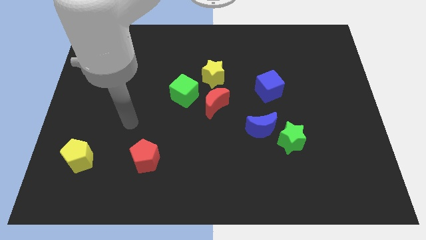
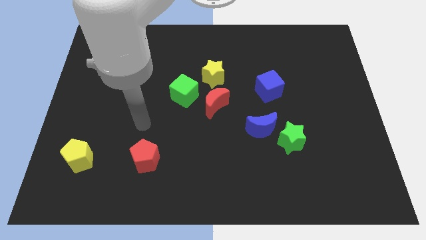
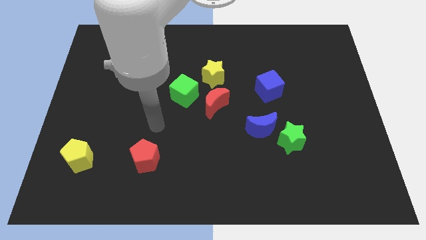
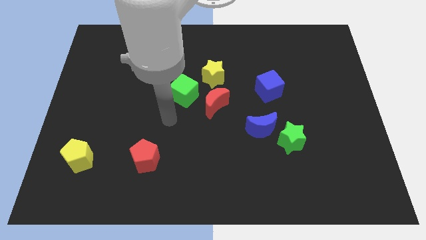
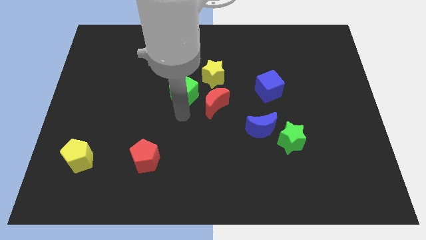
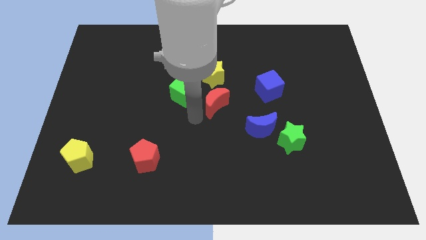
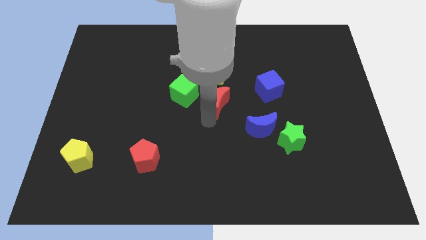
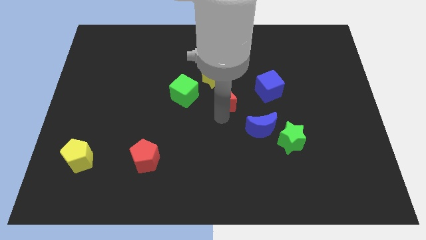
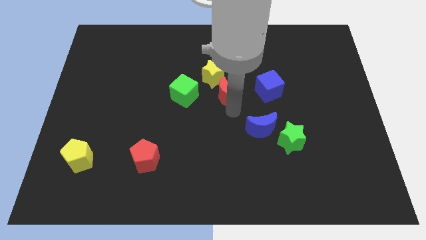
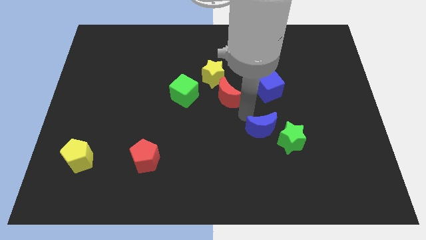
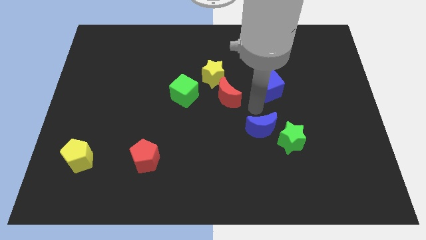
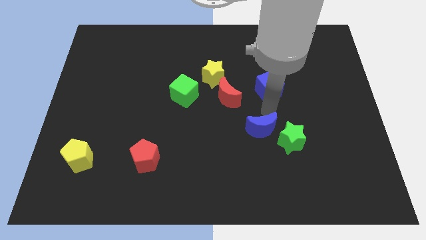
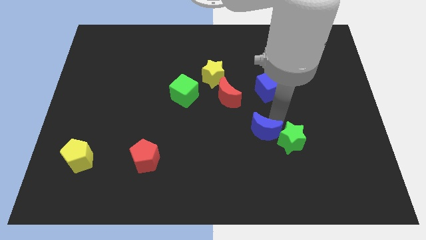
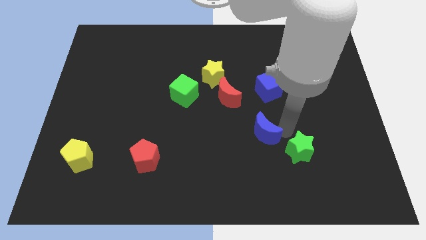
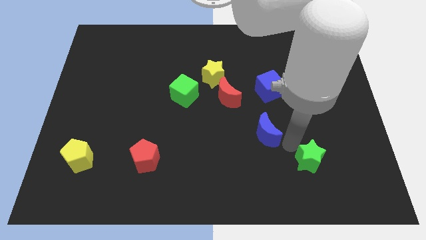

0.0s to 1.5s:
separate the blue moon from the green star

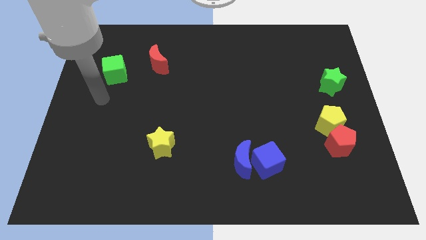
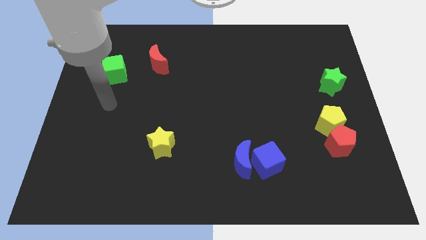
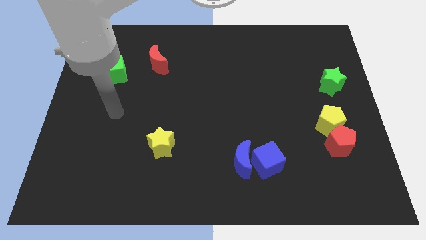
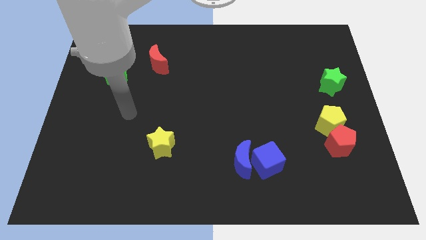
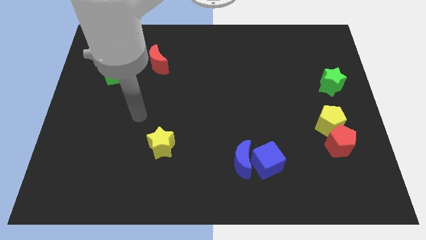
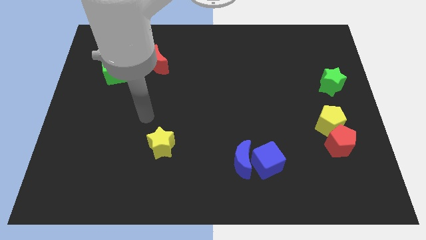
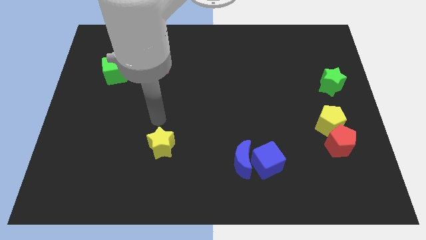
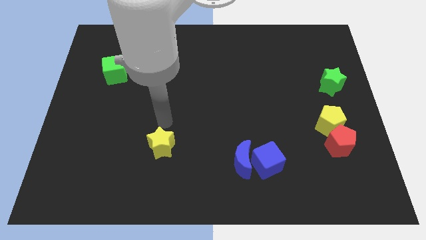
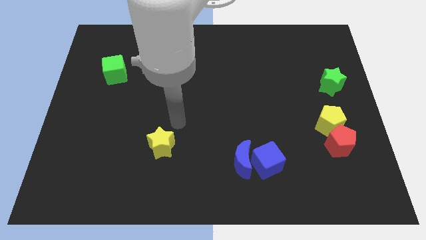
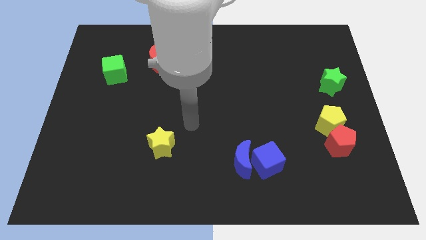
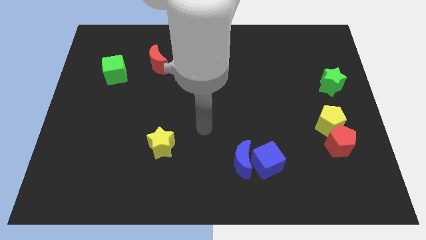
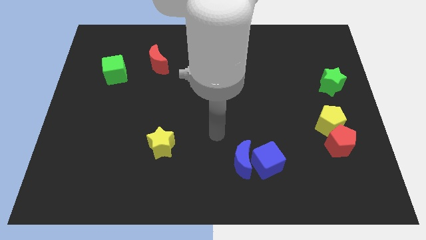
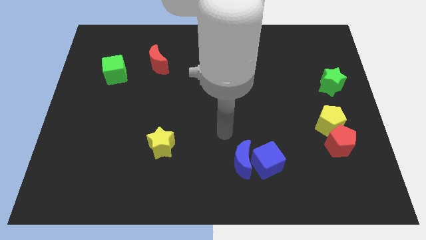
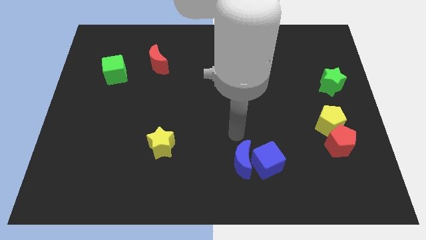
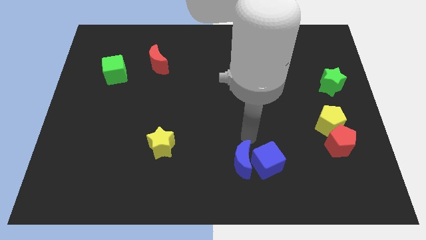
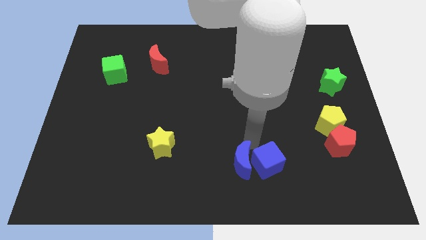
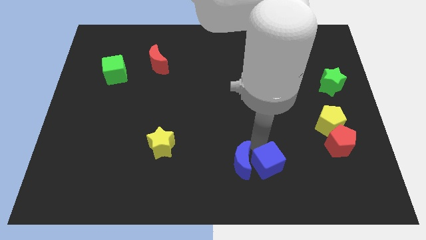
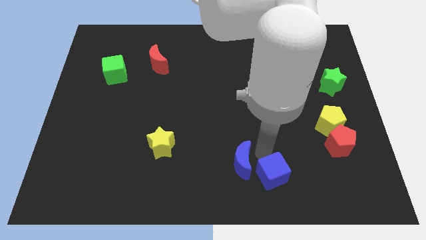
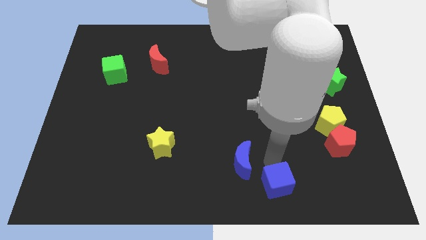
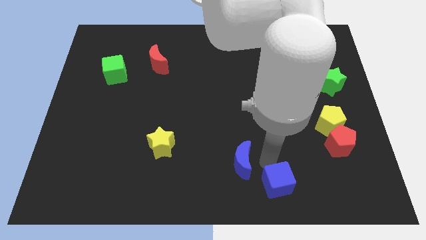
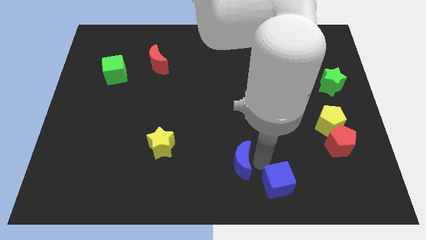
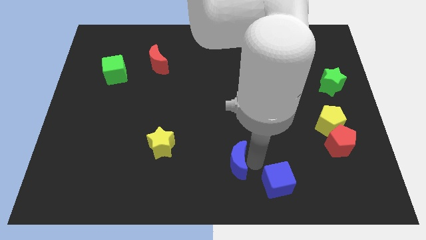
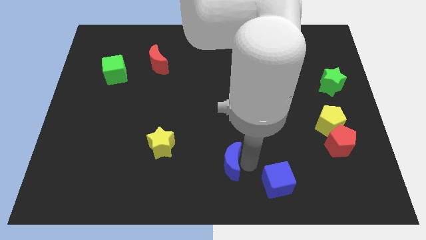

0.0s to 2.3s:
pull the blue moon apart from the blue cube

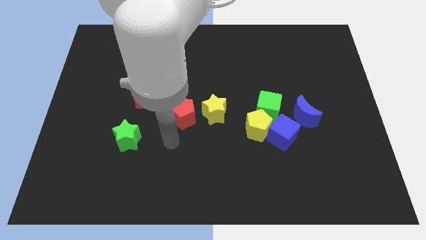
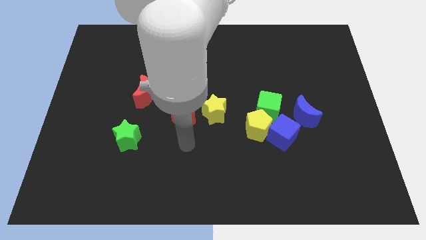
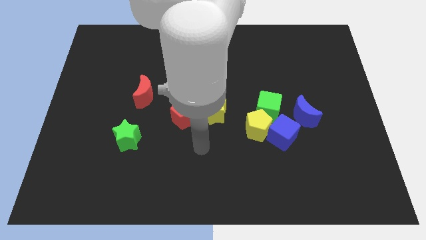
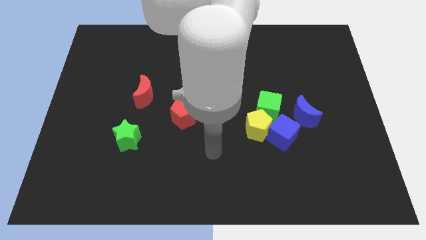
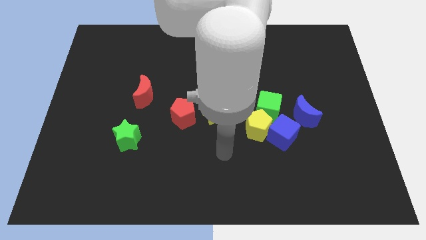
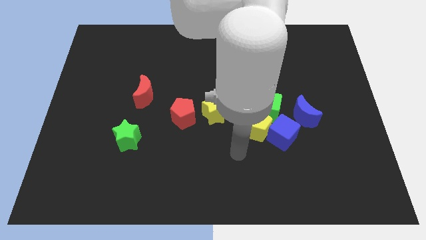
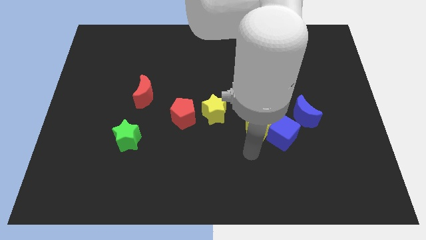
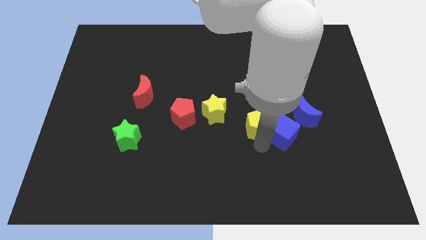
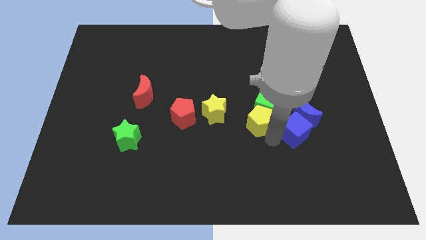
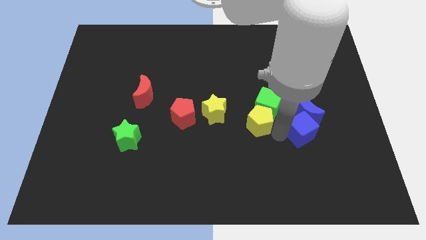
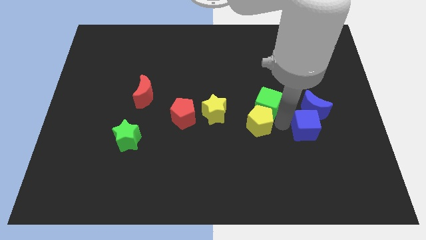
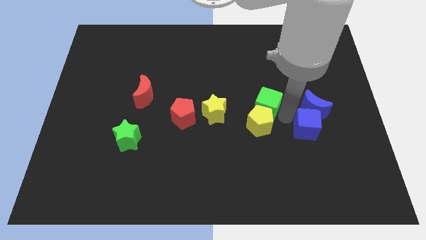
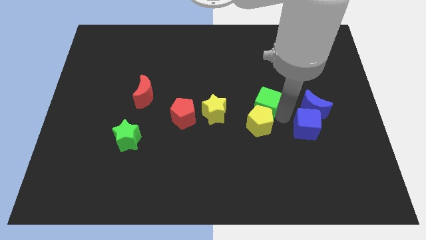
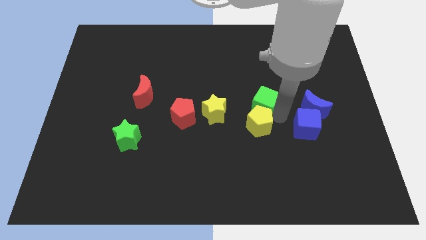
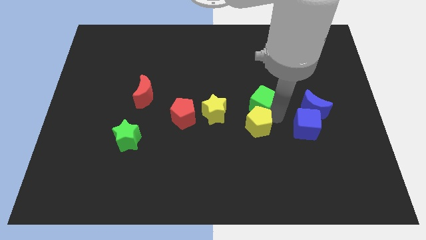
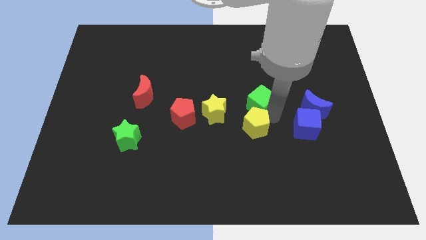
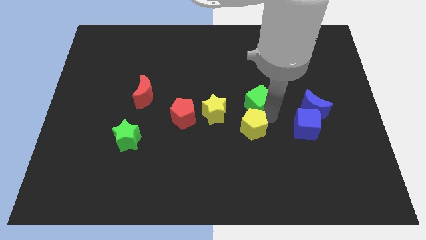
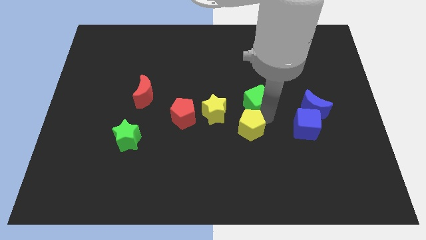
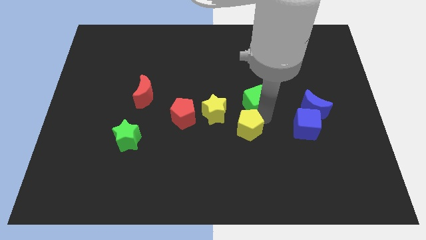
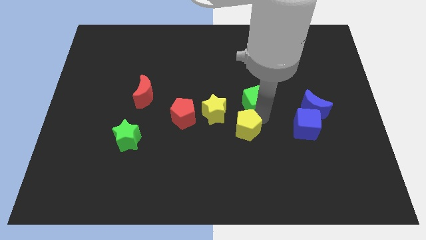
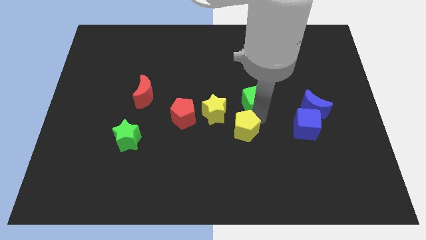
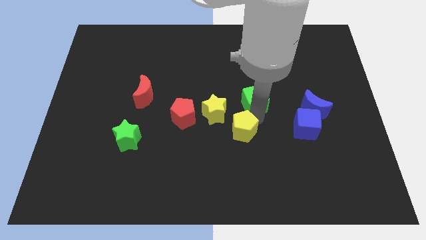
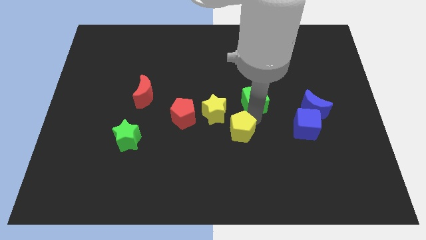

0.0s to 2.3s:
separate the yellow pentagon from the blue cube and green cube

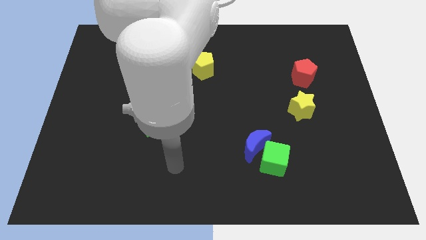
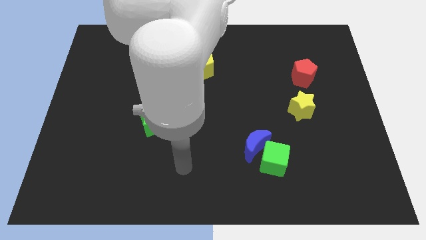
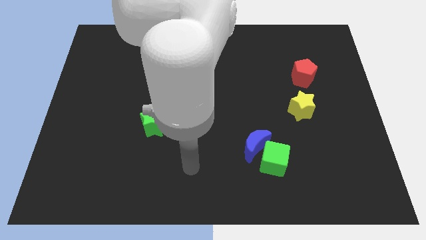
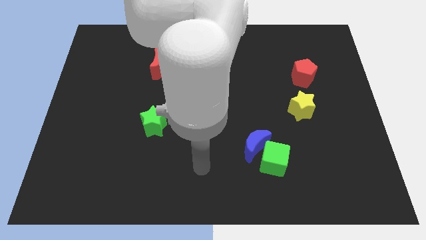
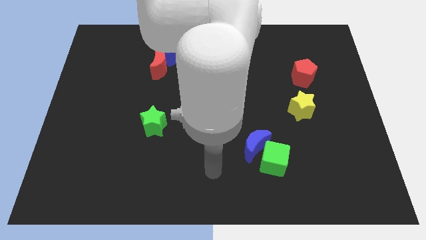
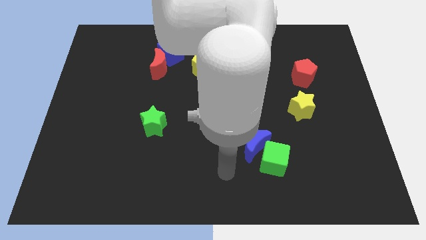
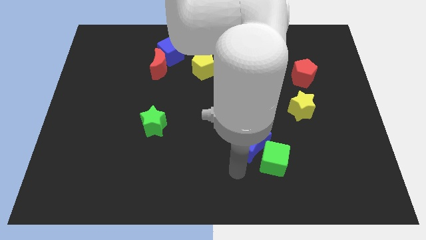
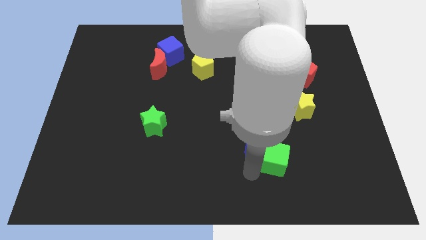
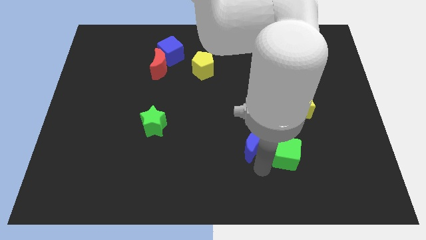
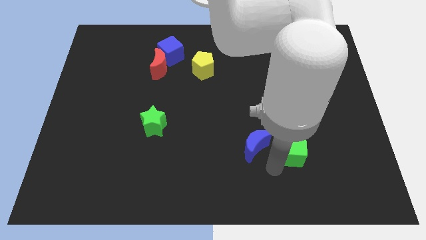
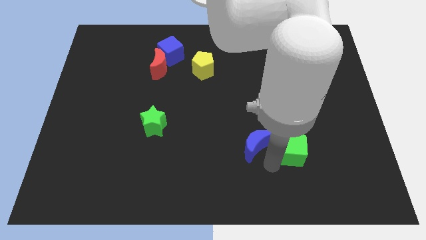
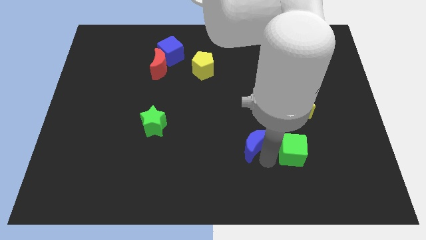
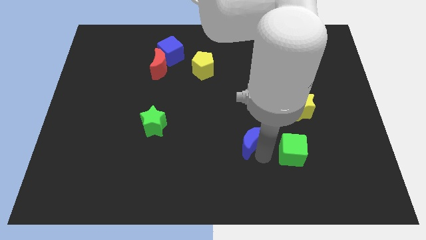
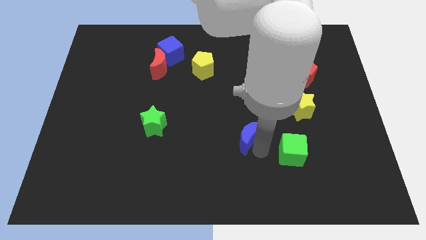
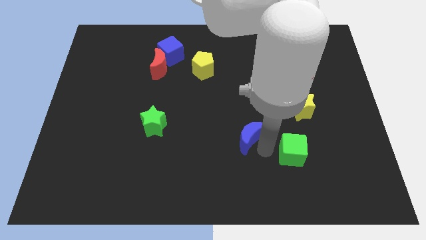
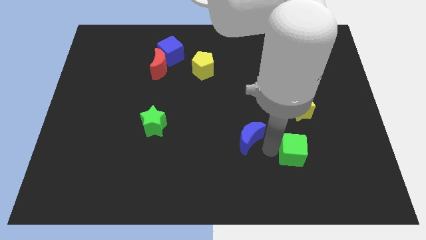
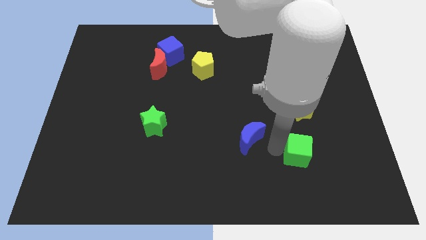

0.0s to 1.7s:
pull the blue moon apart from the green cube

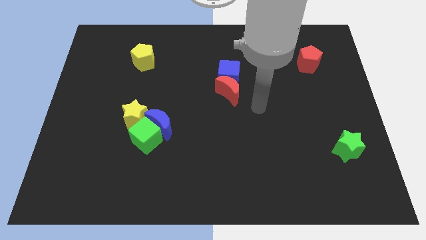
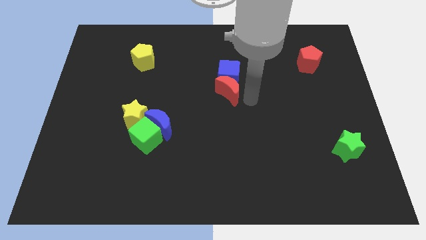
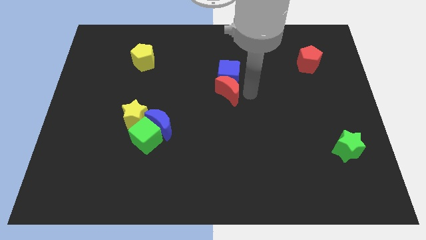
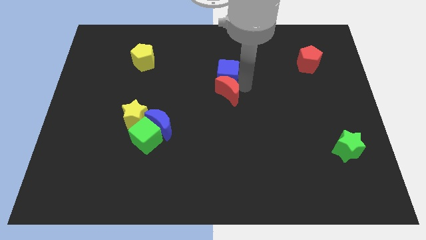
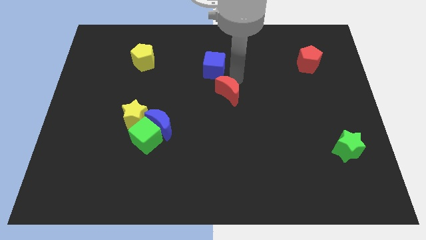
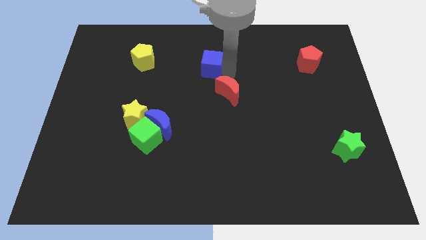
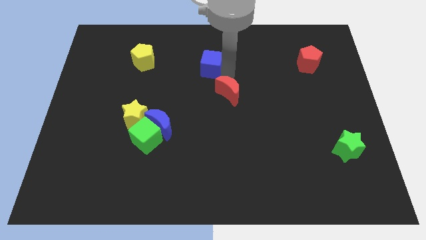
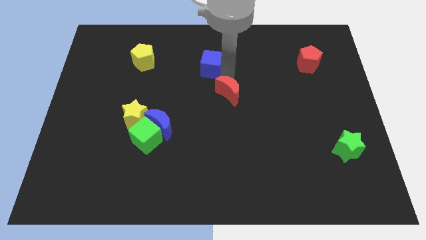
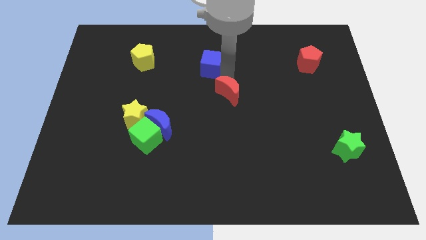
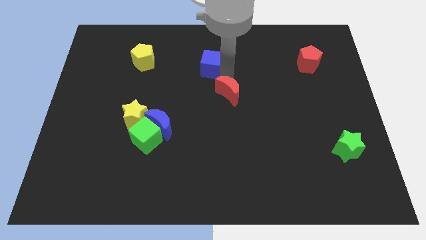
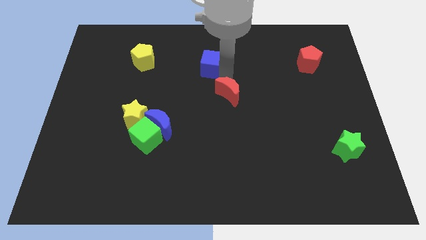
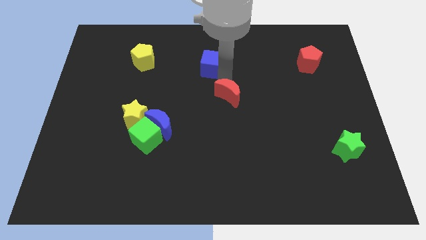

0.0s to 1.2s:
pull the red moon apart from the blue cube

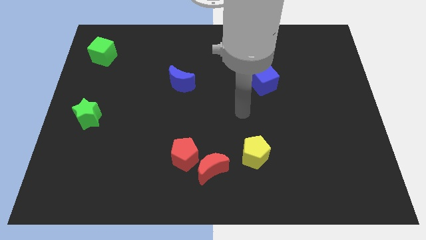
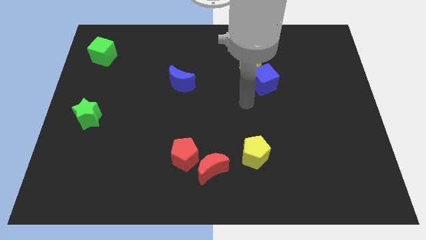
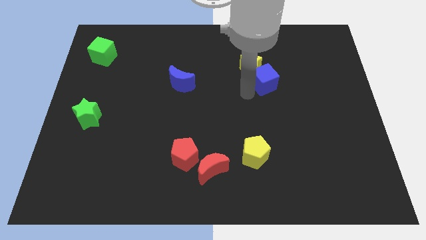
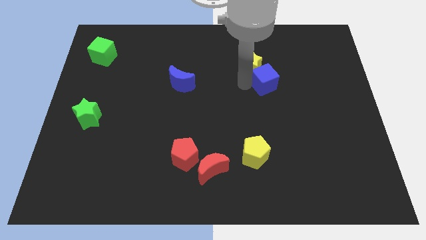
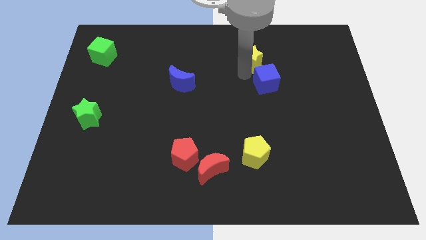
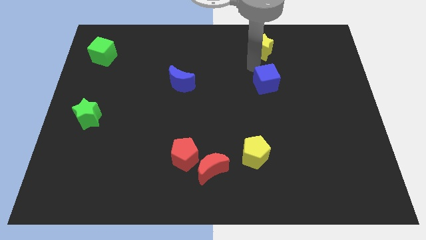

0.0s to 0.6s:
pull the blue cube apart from the yellow star
